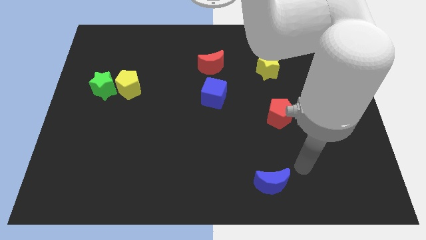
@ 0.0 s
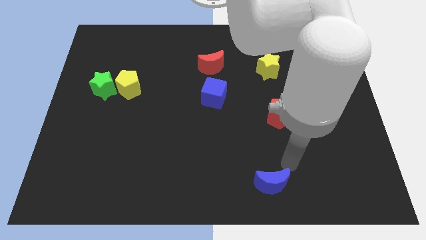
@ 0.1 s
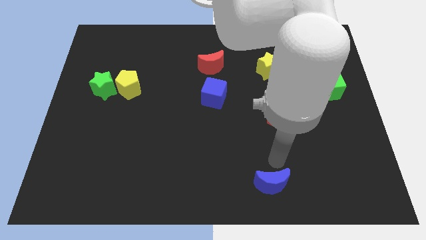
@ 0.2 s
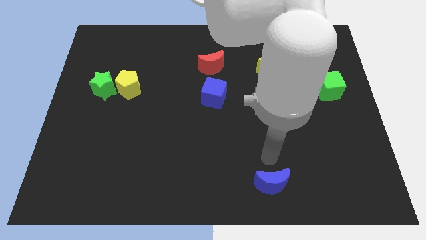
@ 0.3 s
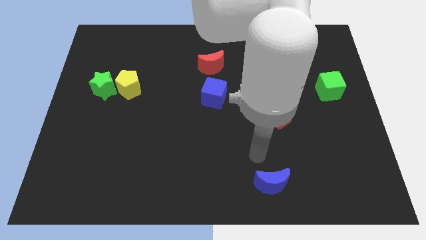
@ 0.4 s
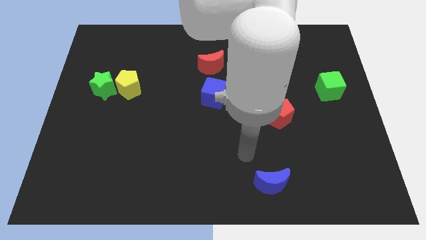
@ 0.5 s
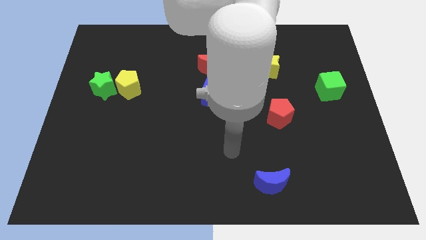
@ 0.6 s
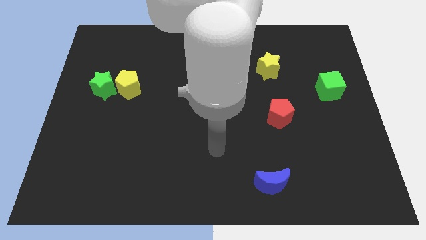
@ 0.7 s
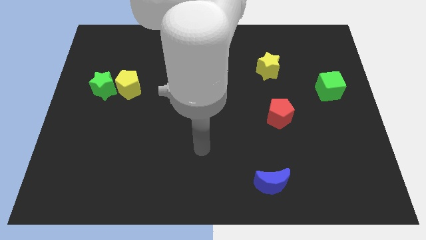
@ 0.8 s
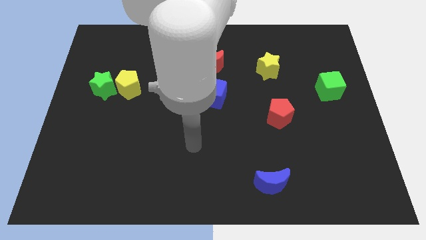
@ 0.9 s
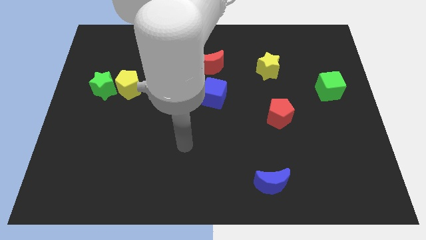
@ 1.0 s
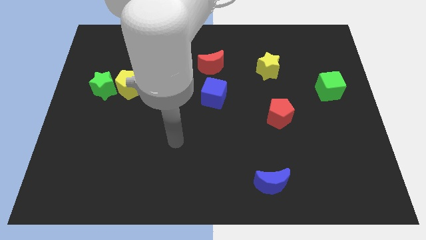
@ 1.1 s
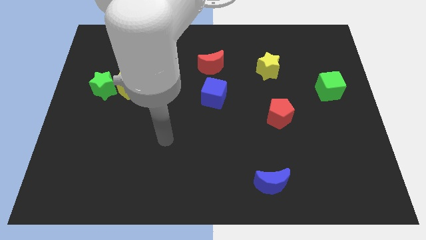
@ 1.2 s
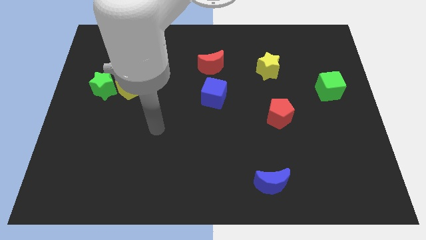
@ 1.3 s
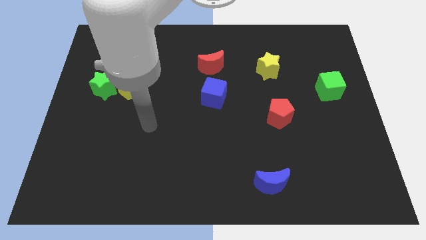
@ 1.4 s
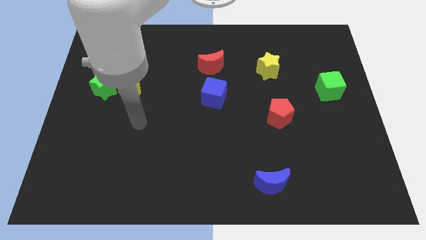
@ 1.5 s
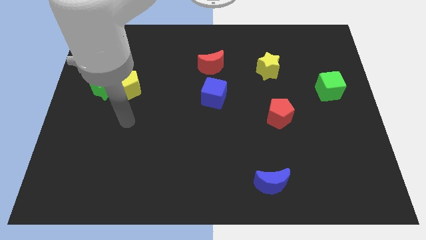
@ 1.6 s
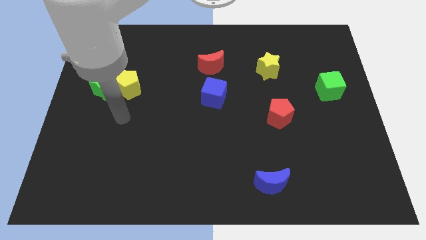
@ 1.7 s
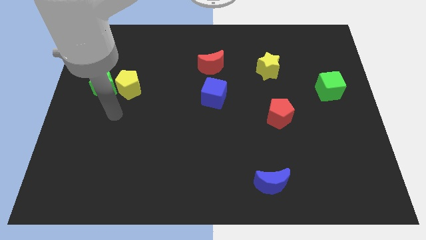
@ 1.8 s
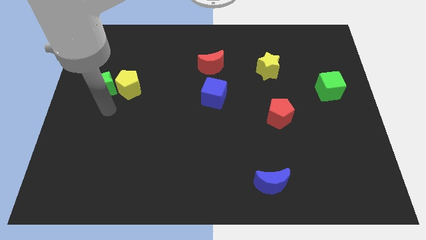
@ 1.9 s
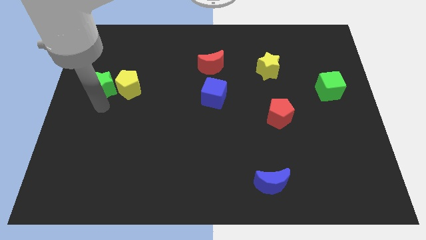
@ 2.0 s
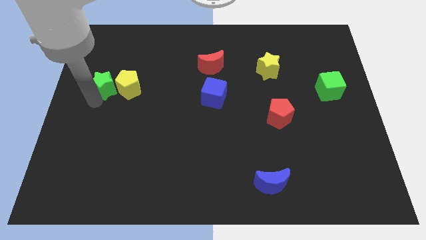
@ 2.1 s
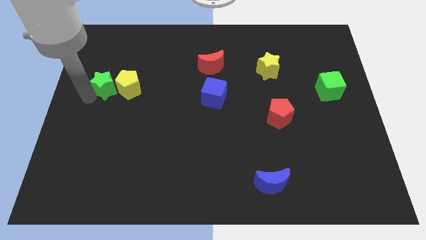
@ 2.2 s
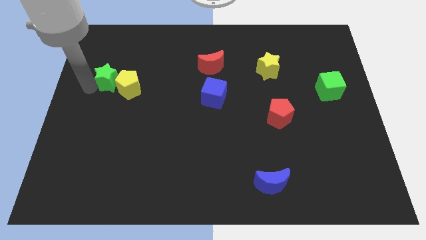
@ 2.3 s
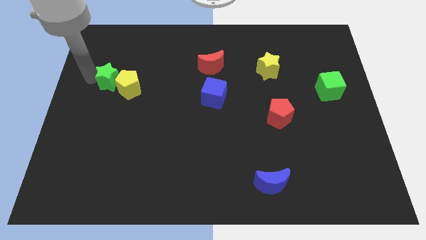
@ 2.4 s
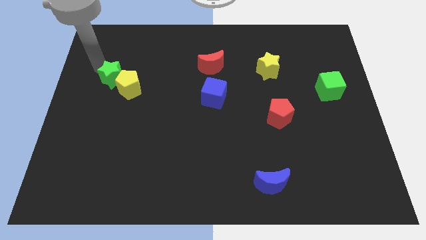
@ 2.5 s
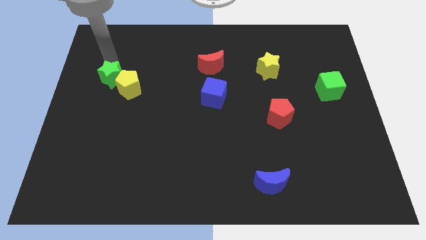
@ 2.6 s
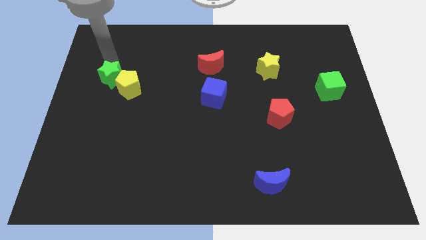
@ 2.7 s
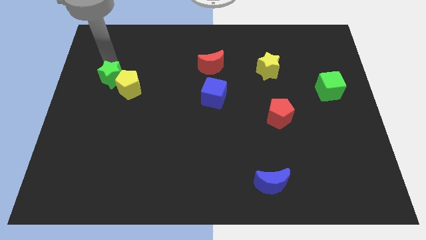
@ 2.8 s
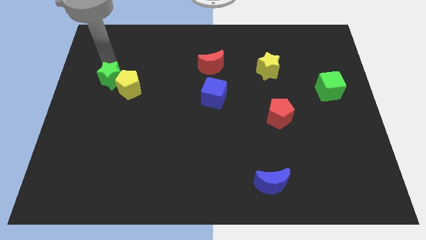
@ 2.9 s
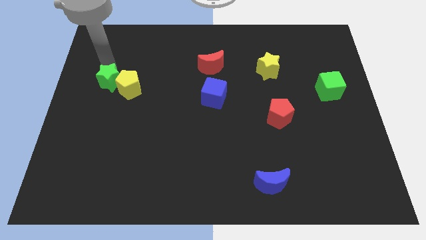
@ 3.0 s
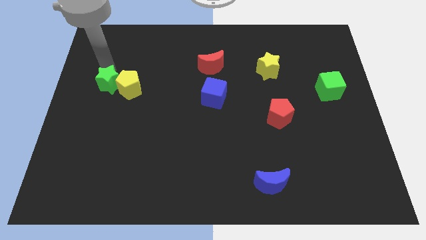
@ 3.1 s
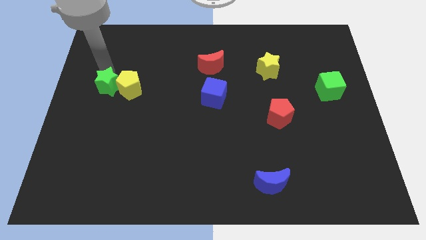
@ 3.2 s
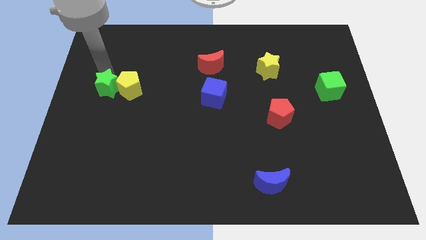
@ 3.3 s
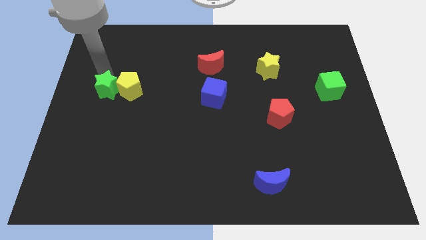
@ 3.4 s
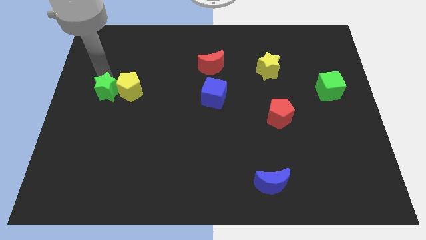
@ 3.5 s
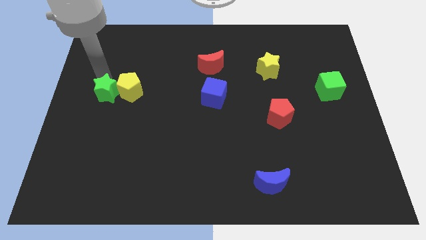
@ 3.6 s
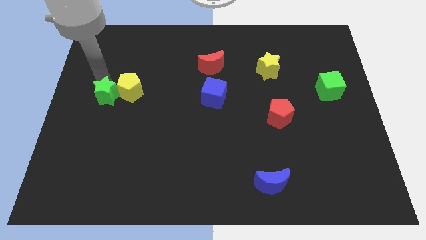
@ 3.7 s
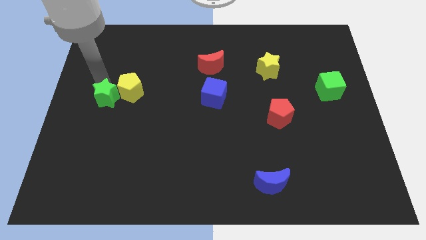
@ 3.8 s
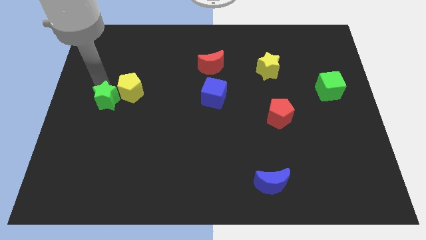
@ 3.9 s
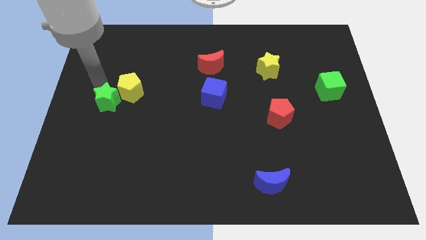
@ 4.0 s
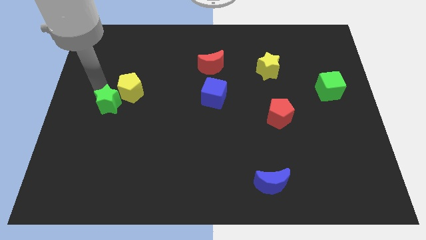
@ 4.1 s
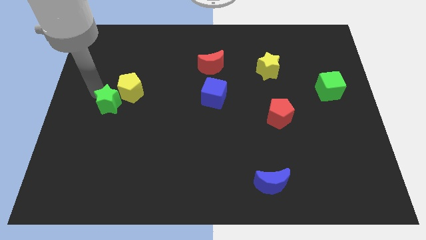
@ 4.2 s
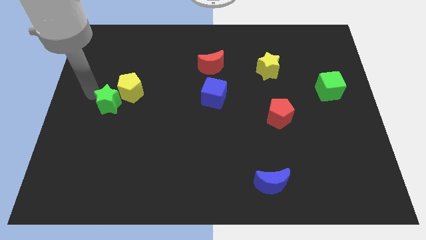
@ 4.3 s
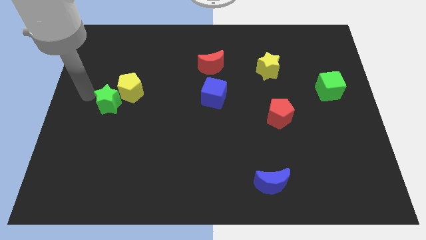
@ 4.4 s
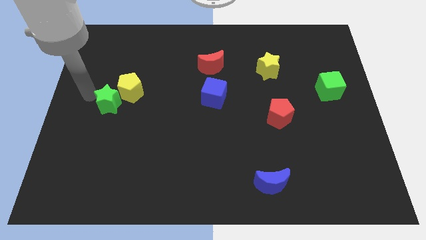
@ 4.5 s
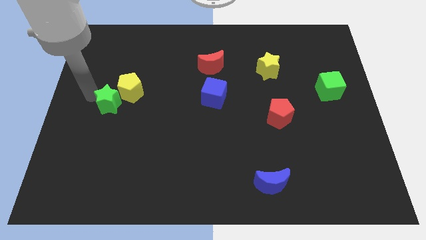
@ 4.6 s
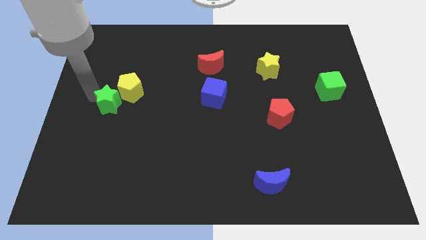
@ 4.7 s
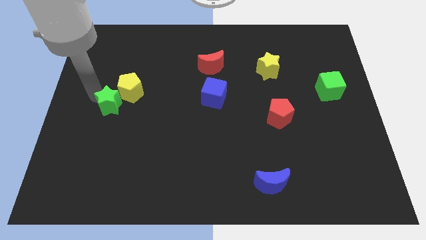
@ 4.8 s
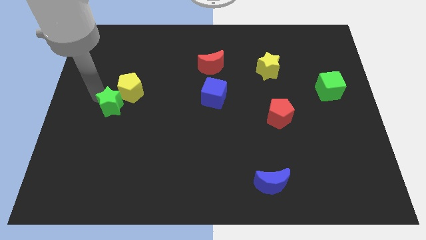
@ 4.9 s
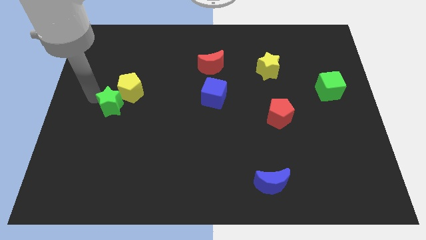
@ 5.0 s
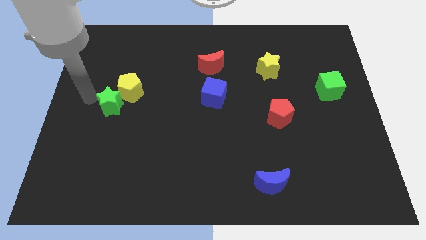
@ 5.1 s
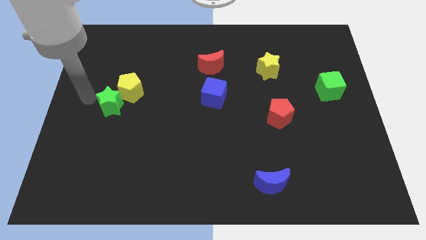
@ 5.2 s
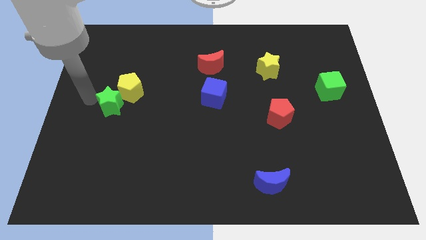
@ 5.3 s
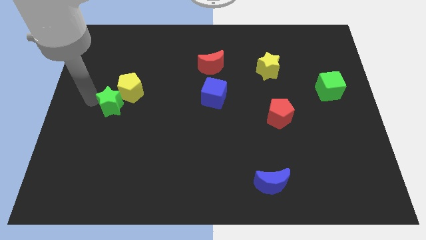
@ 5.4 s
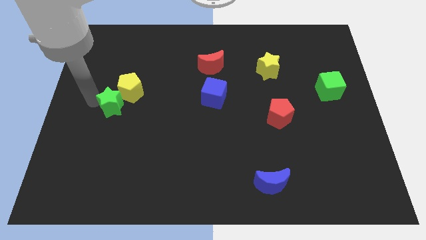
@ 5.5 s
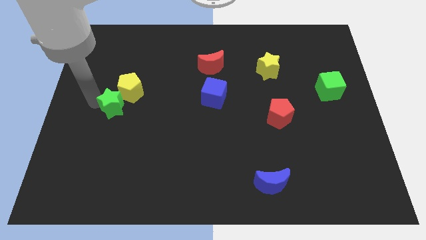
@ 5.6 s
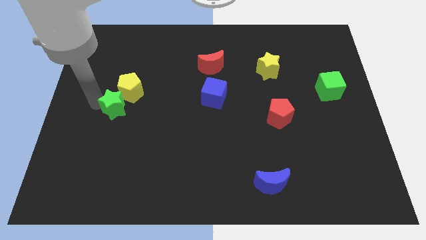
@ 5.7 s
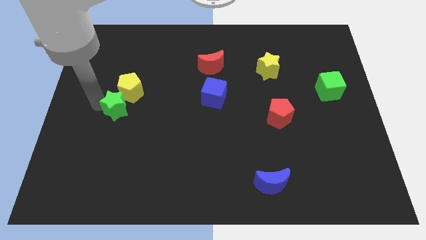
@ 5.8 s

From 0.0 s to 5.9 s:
slide the green star down and right a bit

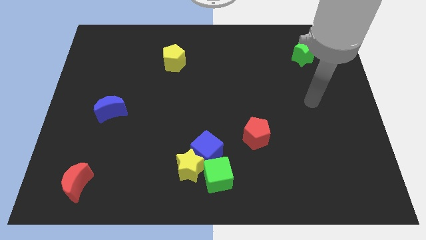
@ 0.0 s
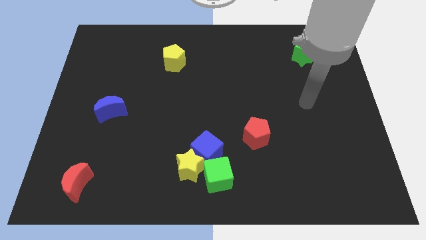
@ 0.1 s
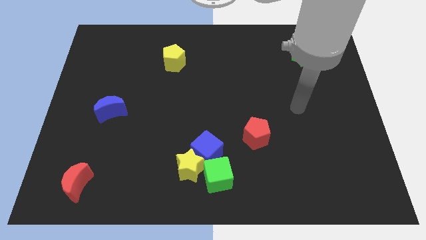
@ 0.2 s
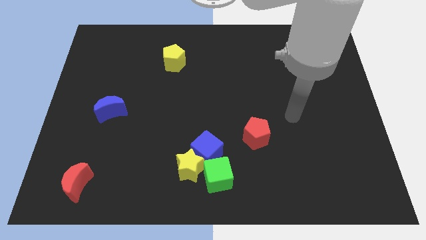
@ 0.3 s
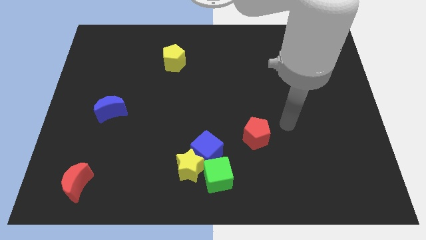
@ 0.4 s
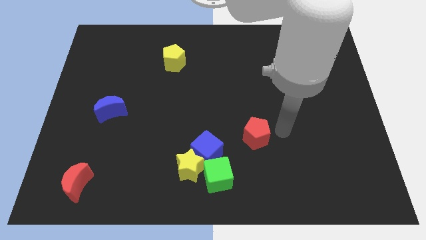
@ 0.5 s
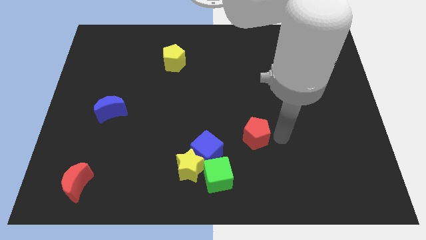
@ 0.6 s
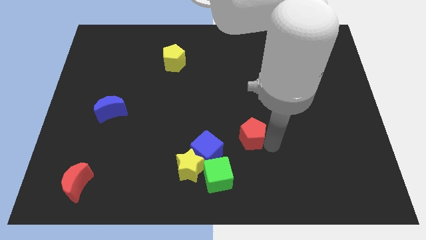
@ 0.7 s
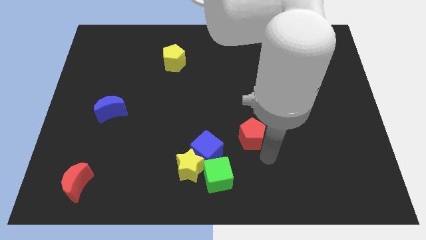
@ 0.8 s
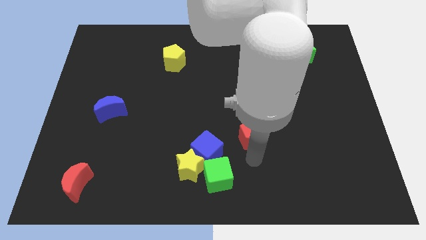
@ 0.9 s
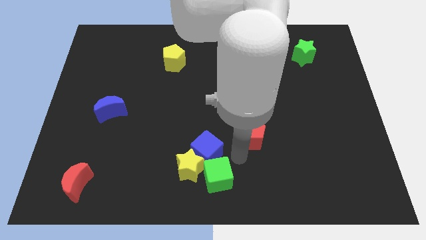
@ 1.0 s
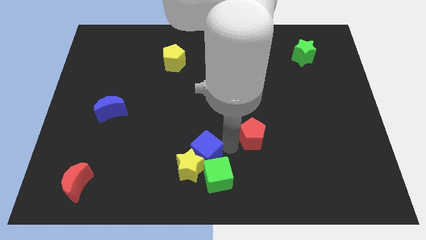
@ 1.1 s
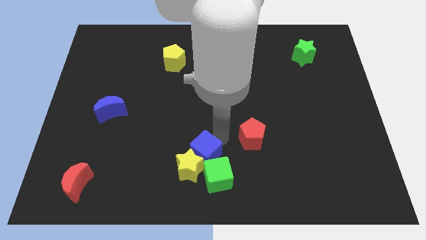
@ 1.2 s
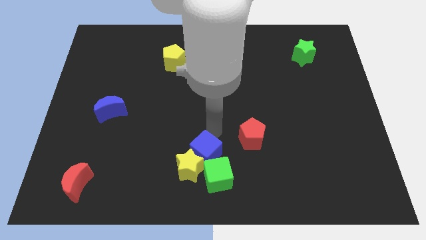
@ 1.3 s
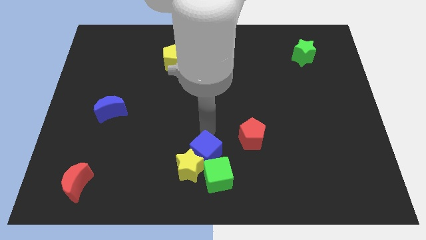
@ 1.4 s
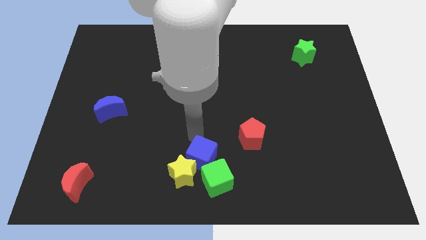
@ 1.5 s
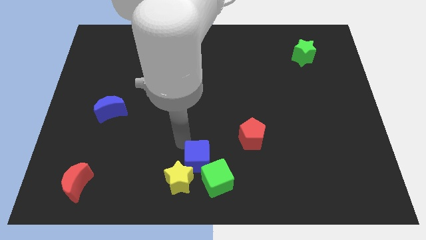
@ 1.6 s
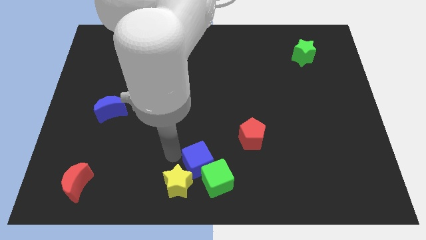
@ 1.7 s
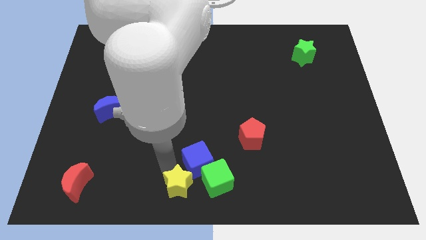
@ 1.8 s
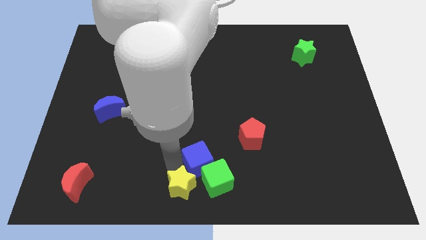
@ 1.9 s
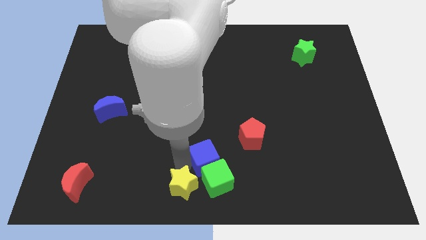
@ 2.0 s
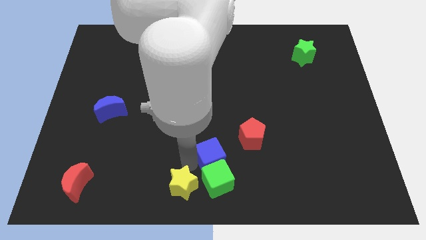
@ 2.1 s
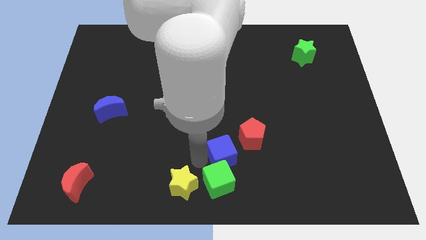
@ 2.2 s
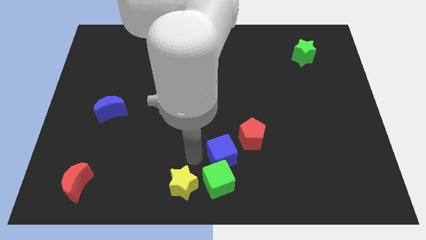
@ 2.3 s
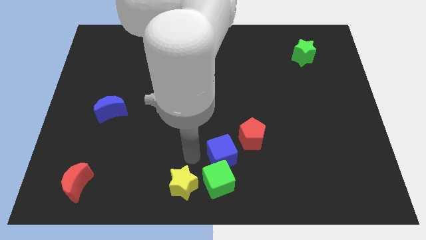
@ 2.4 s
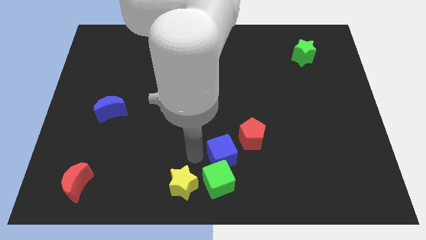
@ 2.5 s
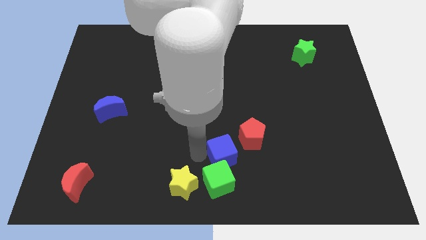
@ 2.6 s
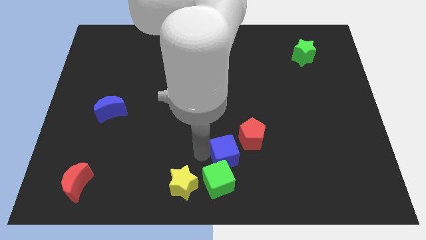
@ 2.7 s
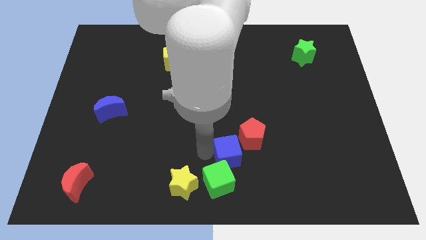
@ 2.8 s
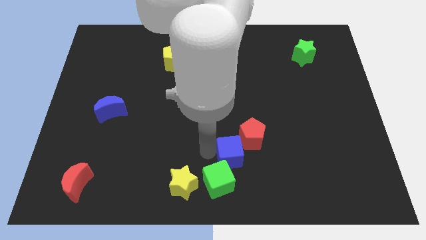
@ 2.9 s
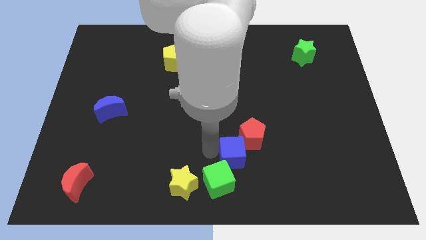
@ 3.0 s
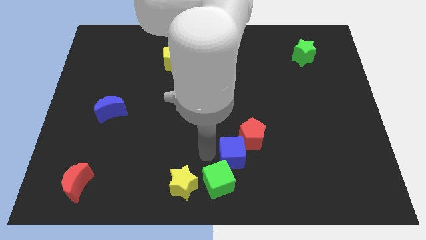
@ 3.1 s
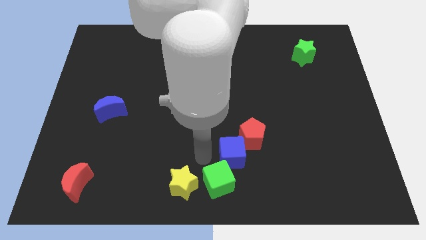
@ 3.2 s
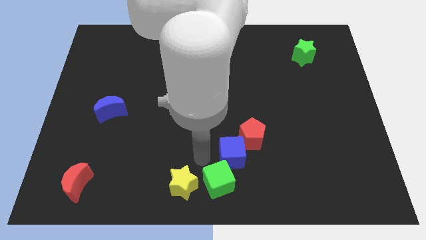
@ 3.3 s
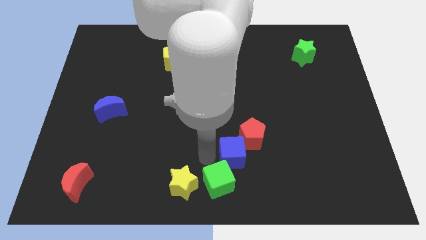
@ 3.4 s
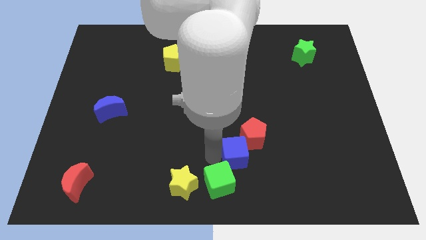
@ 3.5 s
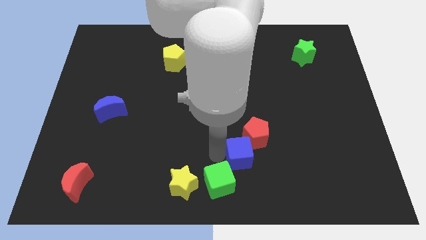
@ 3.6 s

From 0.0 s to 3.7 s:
push the blue cube to the right a little bit
